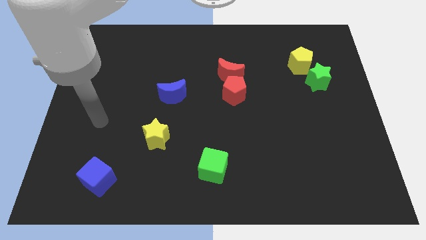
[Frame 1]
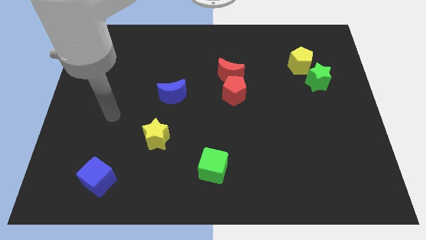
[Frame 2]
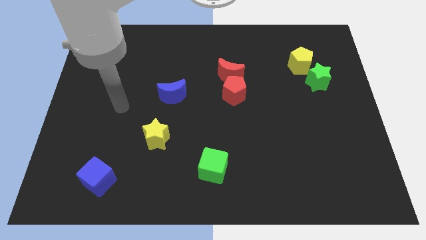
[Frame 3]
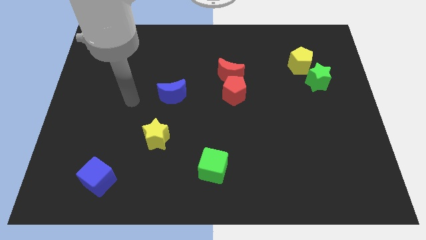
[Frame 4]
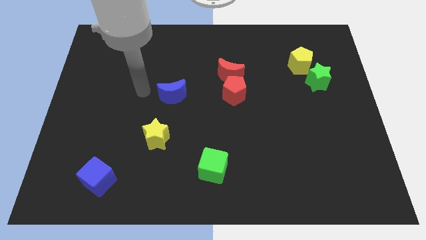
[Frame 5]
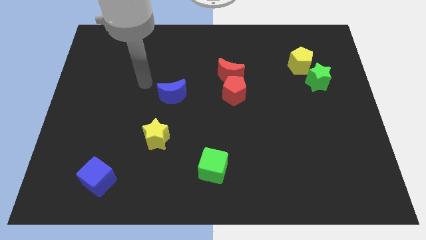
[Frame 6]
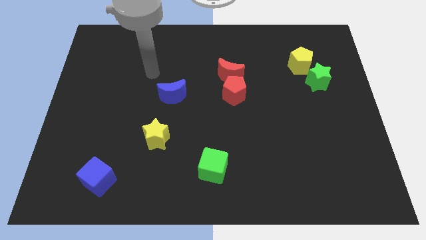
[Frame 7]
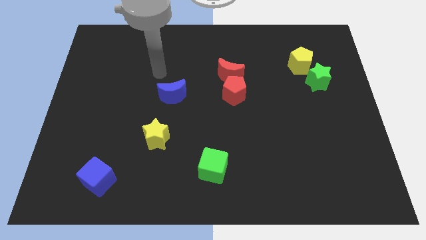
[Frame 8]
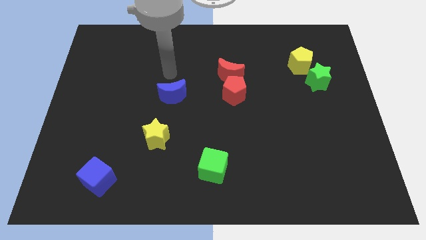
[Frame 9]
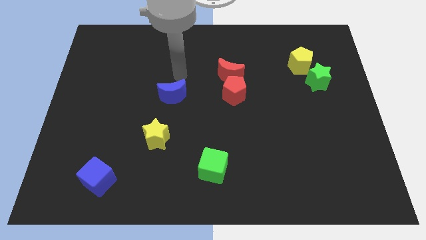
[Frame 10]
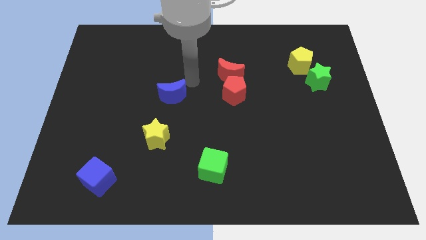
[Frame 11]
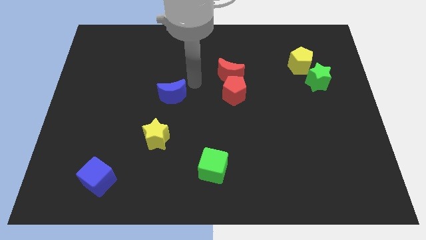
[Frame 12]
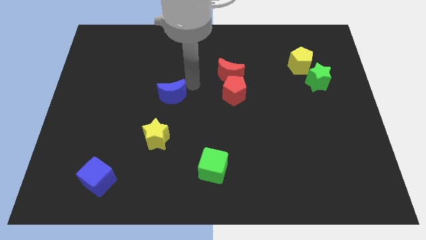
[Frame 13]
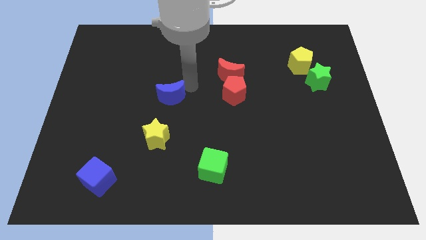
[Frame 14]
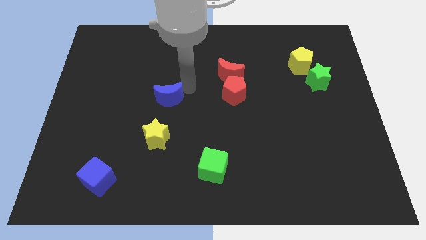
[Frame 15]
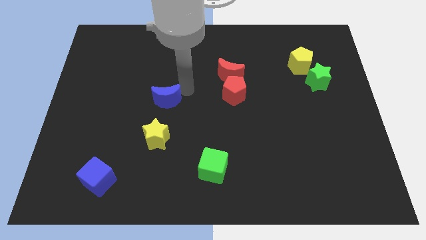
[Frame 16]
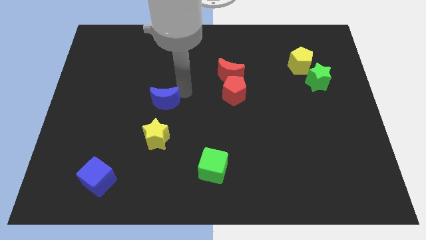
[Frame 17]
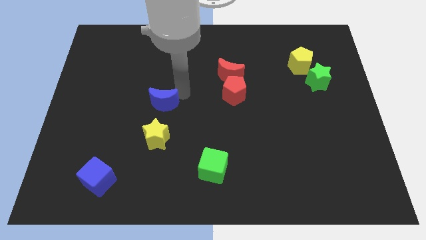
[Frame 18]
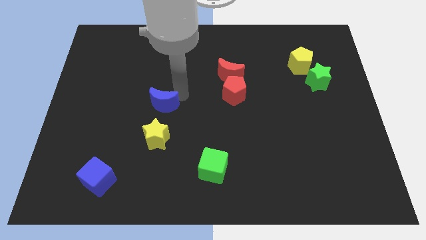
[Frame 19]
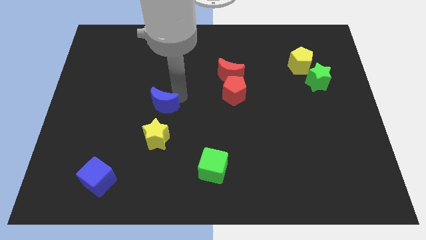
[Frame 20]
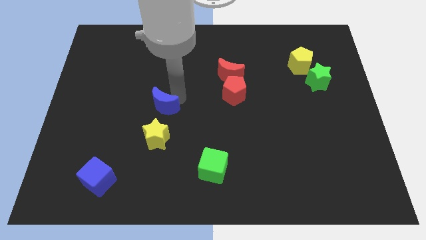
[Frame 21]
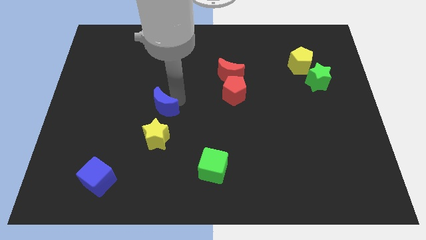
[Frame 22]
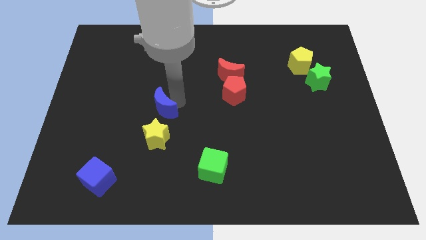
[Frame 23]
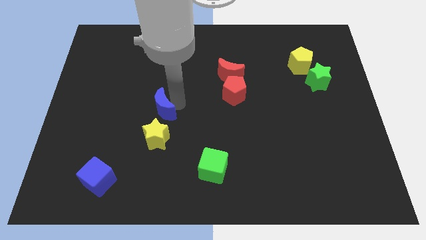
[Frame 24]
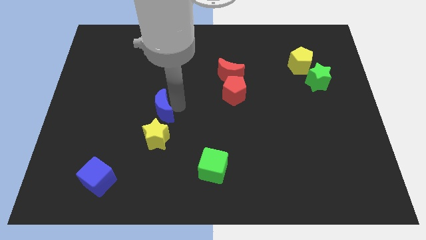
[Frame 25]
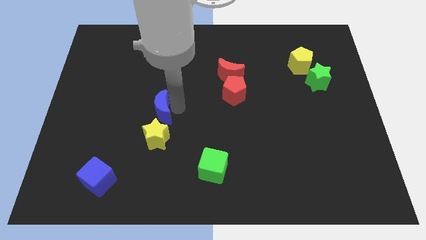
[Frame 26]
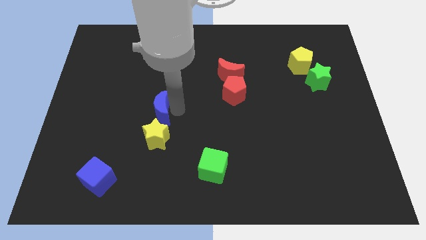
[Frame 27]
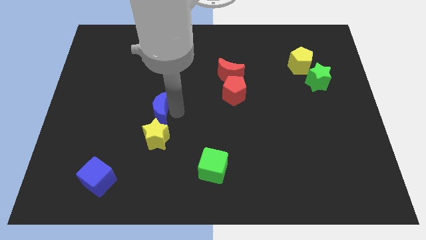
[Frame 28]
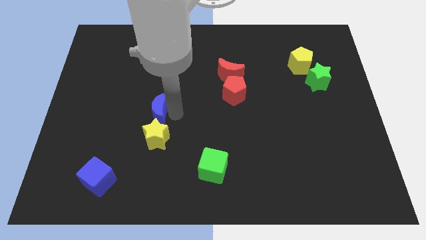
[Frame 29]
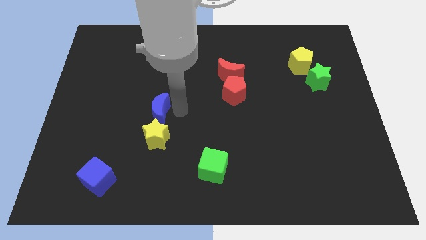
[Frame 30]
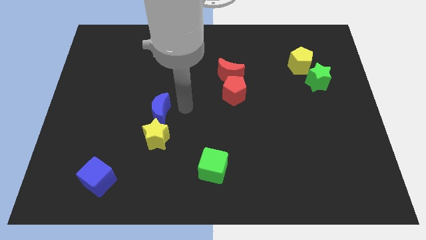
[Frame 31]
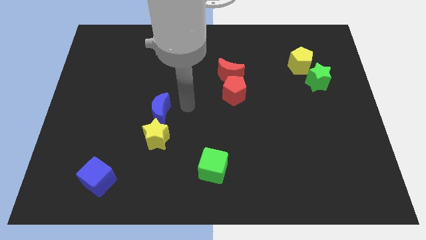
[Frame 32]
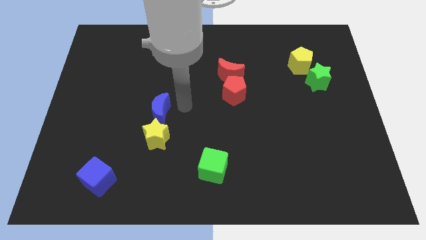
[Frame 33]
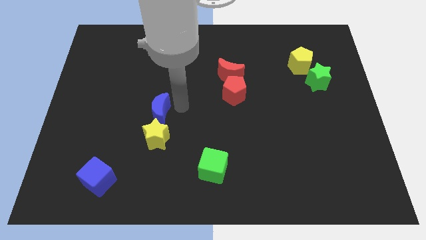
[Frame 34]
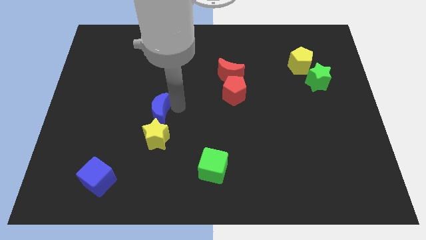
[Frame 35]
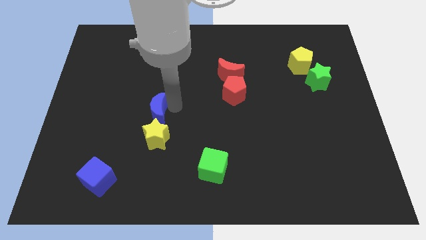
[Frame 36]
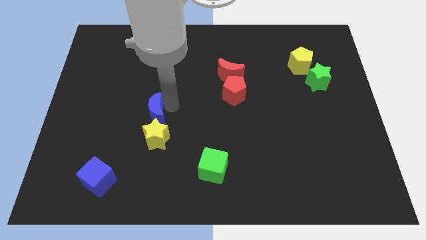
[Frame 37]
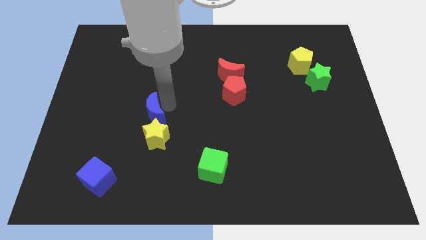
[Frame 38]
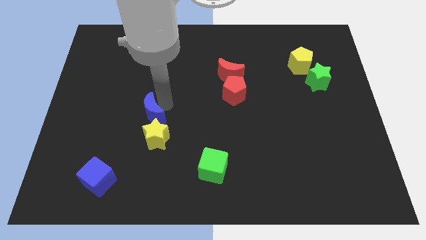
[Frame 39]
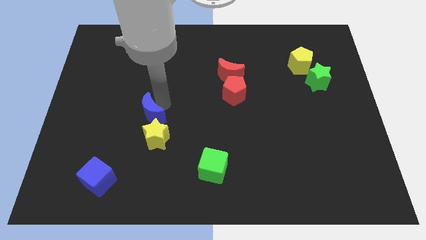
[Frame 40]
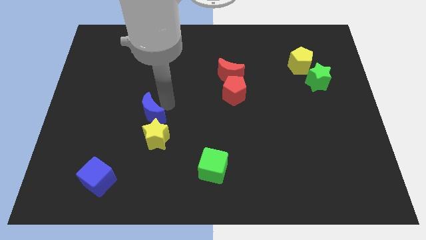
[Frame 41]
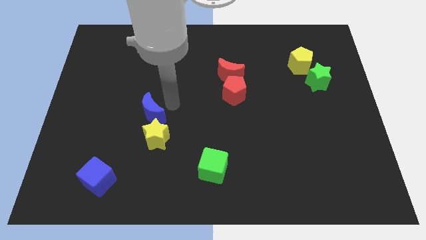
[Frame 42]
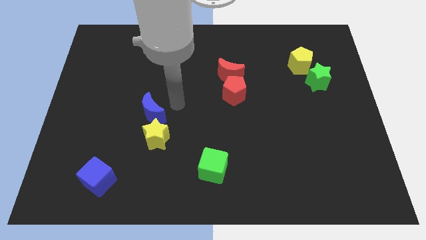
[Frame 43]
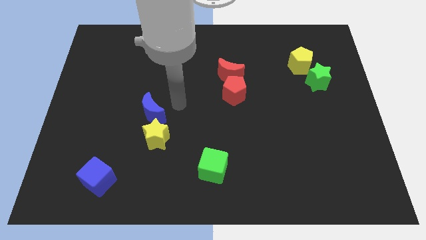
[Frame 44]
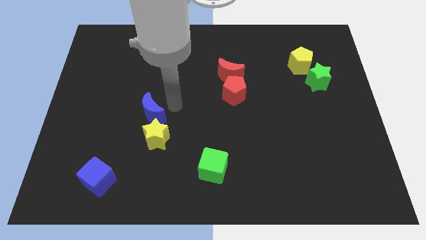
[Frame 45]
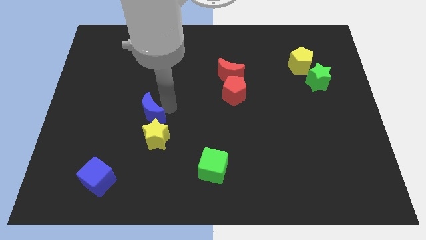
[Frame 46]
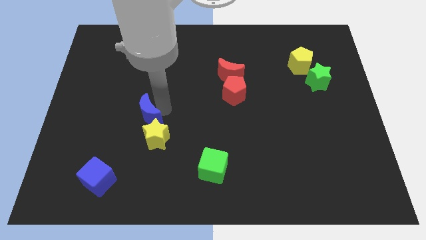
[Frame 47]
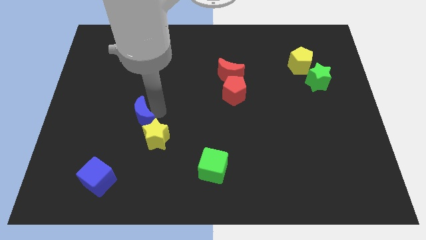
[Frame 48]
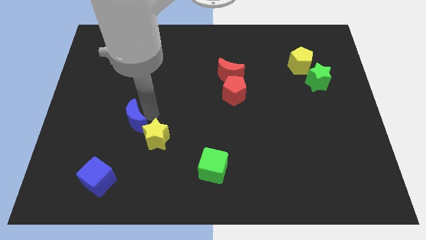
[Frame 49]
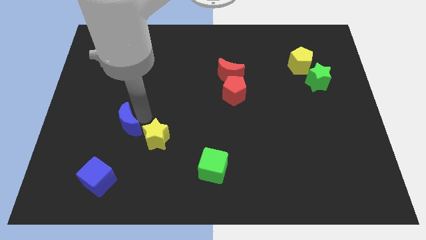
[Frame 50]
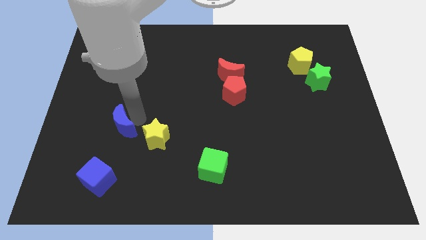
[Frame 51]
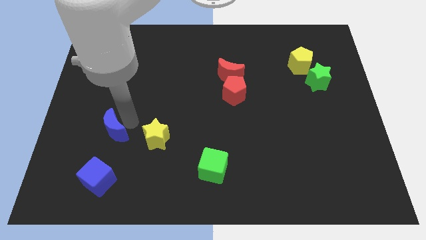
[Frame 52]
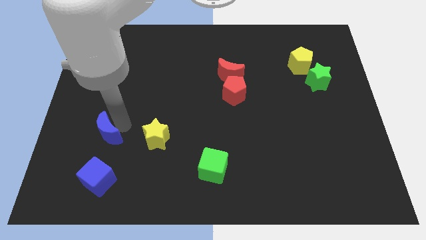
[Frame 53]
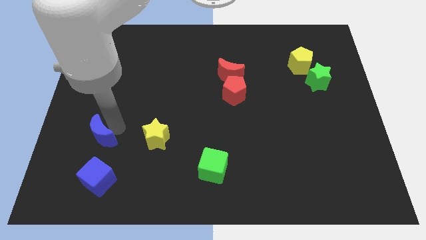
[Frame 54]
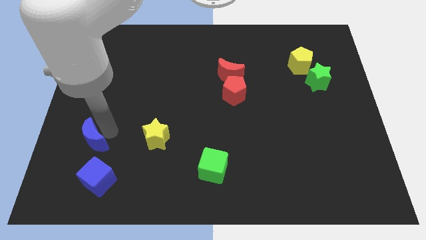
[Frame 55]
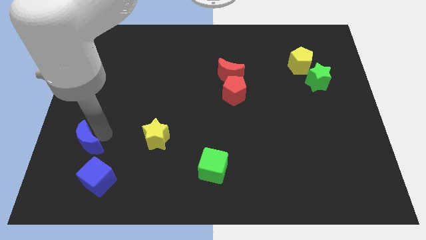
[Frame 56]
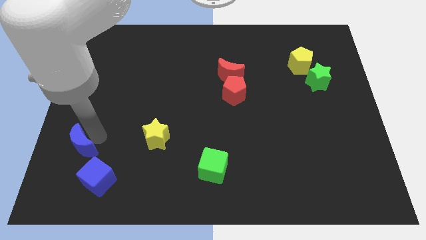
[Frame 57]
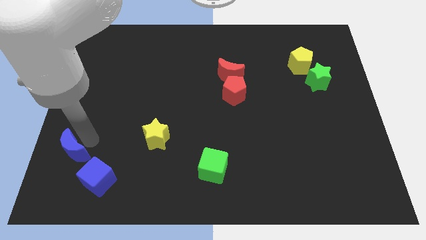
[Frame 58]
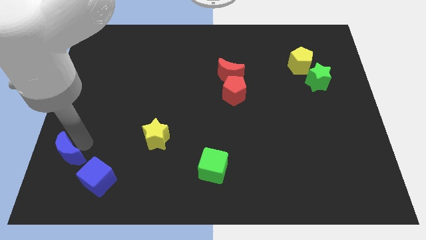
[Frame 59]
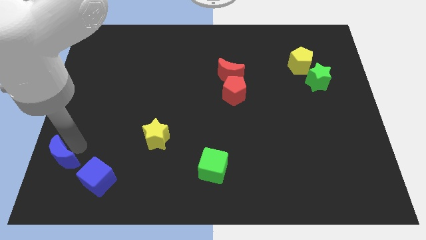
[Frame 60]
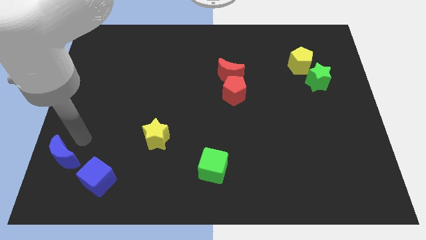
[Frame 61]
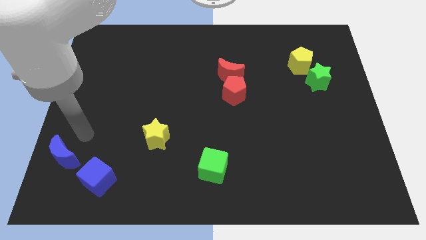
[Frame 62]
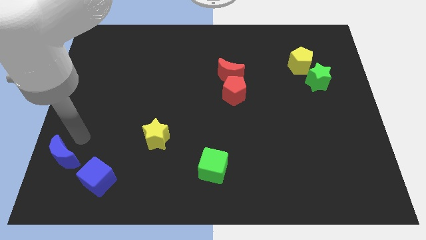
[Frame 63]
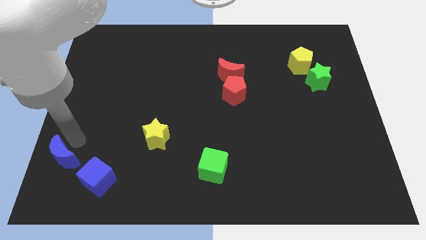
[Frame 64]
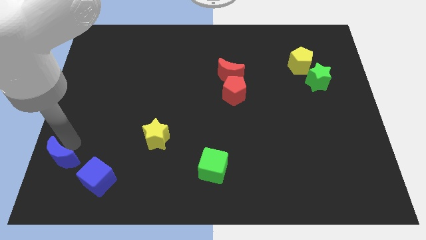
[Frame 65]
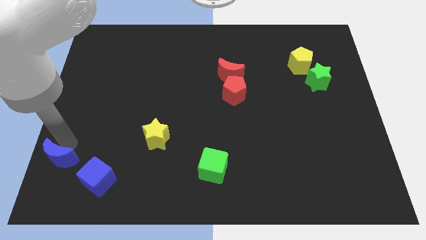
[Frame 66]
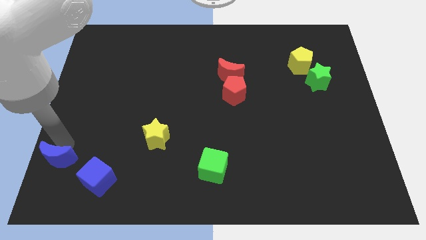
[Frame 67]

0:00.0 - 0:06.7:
slide the blue moon to the lower left corner

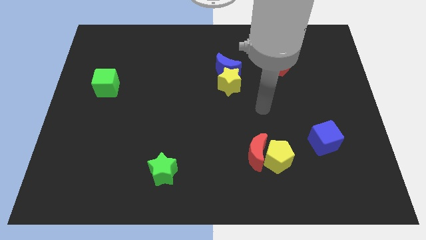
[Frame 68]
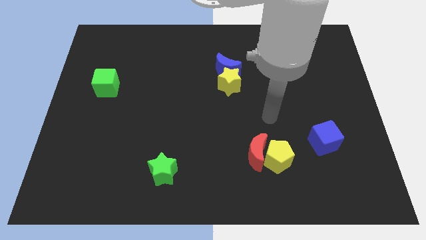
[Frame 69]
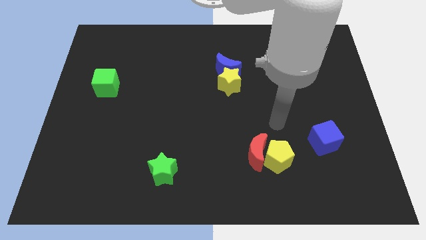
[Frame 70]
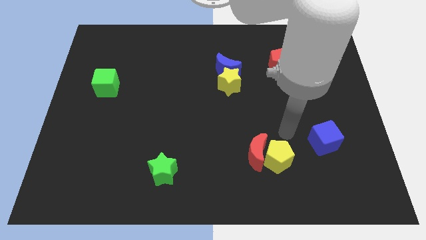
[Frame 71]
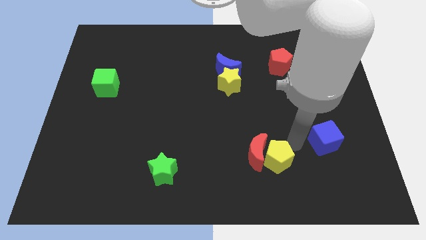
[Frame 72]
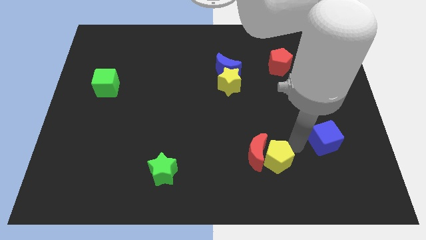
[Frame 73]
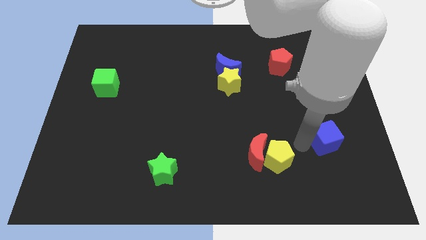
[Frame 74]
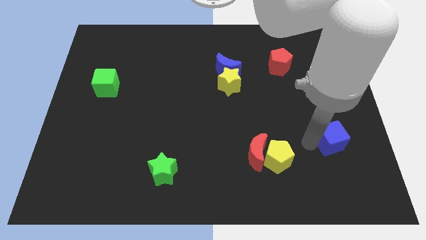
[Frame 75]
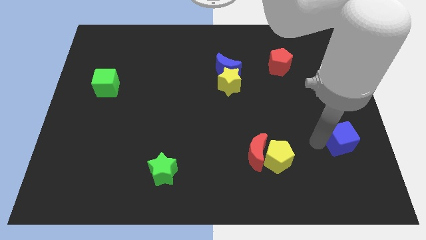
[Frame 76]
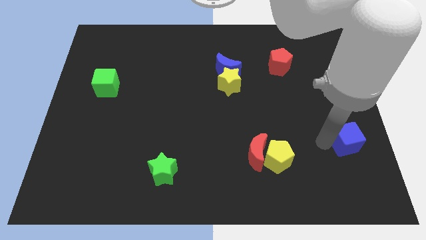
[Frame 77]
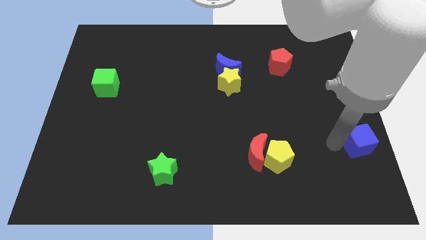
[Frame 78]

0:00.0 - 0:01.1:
push the blue cube to the right side
